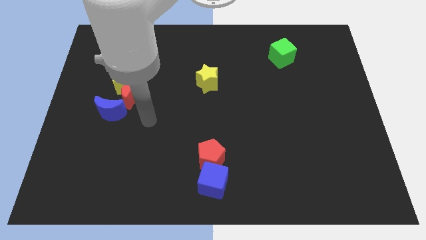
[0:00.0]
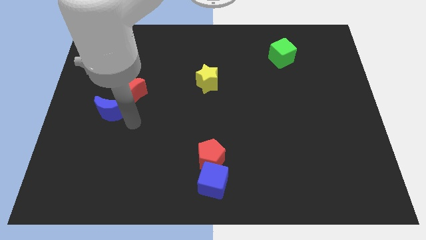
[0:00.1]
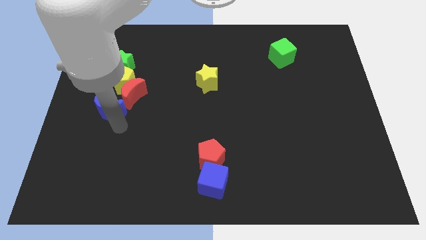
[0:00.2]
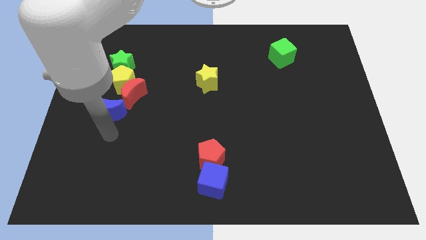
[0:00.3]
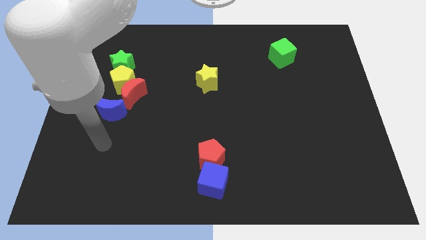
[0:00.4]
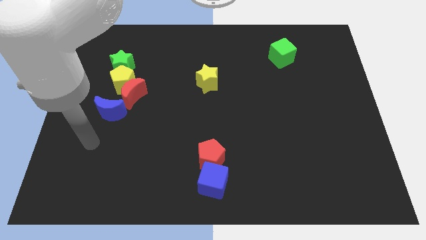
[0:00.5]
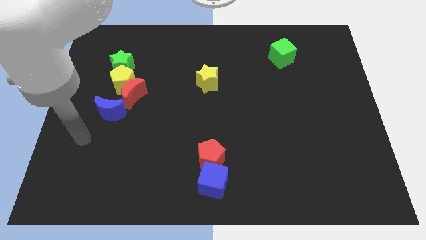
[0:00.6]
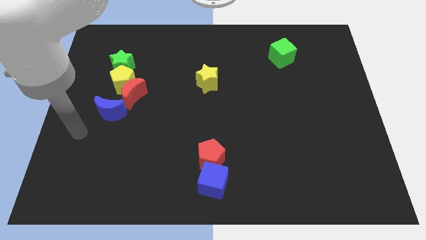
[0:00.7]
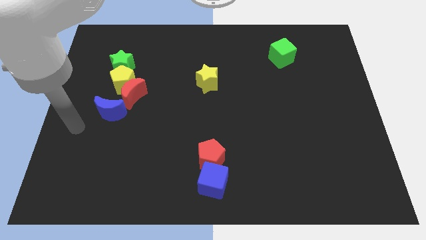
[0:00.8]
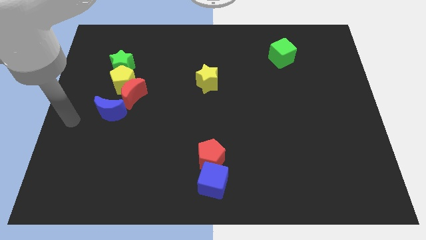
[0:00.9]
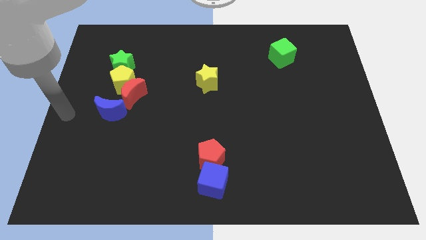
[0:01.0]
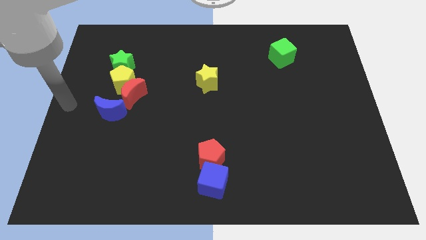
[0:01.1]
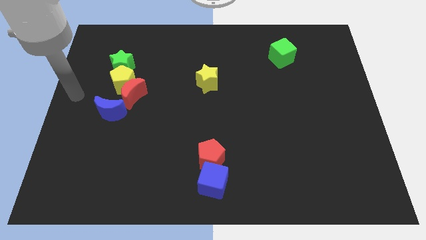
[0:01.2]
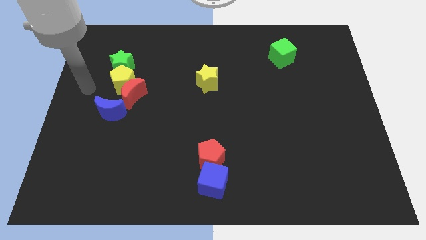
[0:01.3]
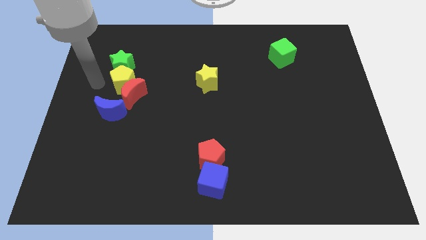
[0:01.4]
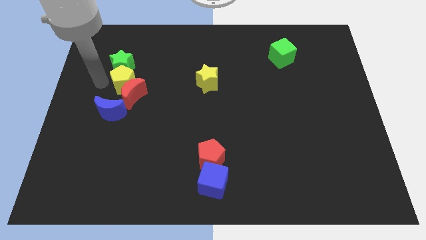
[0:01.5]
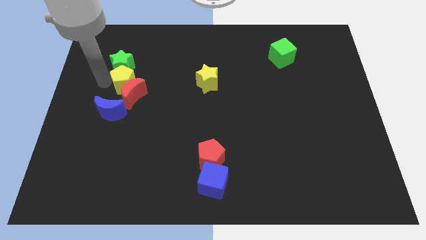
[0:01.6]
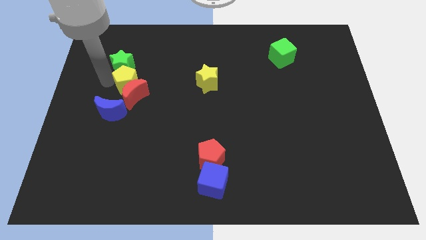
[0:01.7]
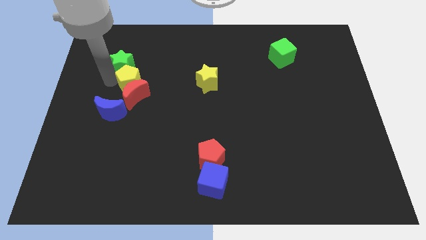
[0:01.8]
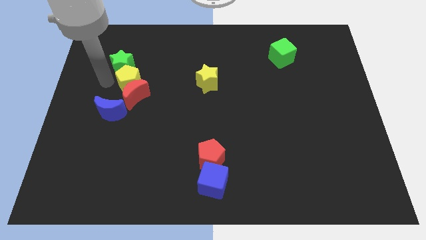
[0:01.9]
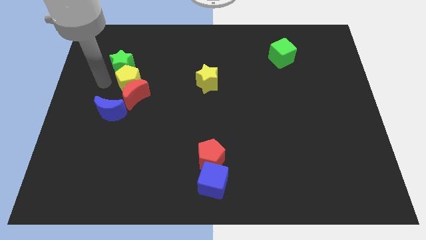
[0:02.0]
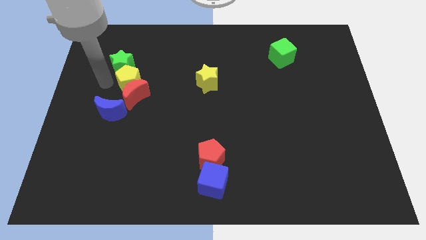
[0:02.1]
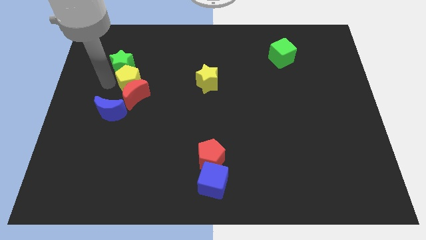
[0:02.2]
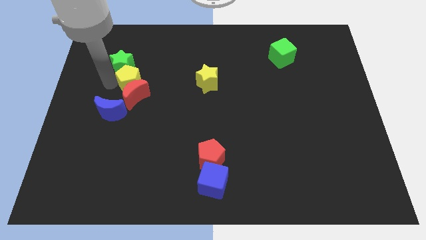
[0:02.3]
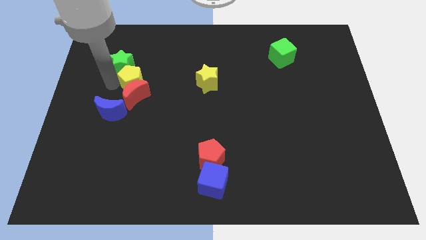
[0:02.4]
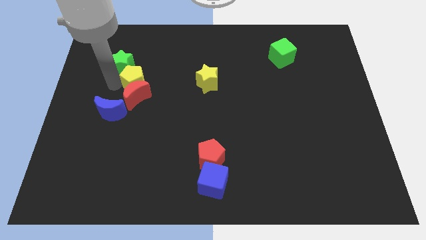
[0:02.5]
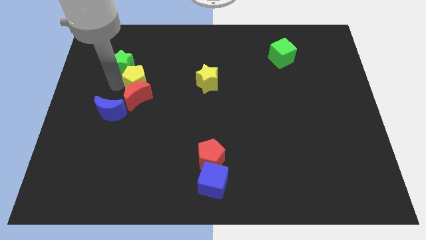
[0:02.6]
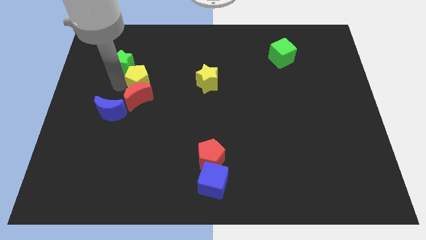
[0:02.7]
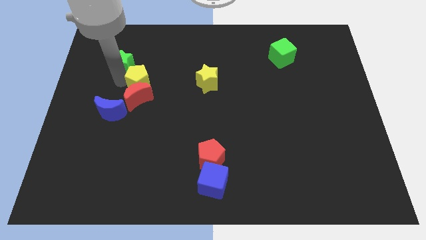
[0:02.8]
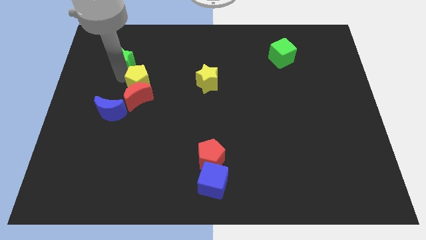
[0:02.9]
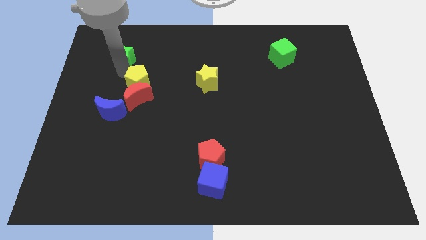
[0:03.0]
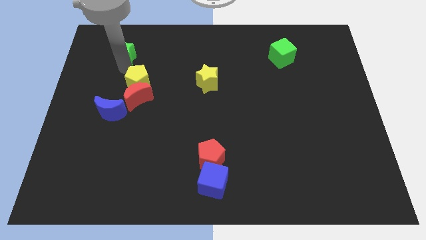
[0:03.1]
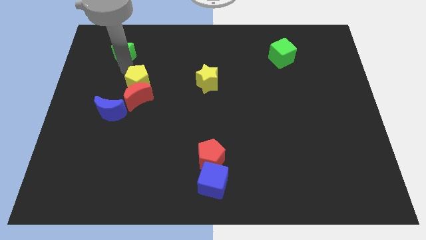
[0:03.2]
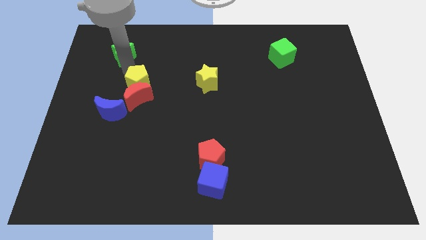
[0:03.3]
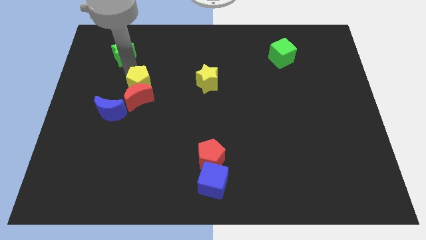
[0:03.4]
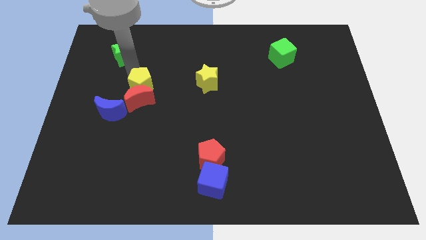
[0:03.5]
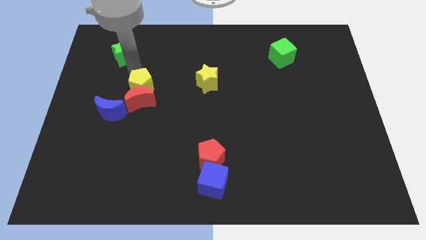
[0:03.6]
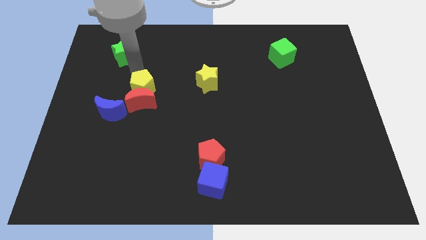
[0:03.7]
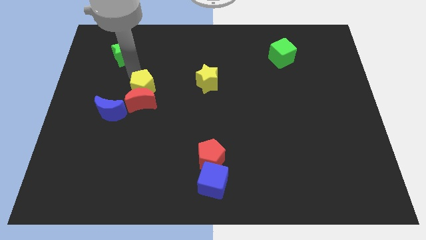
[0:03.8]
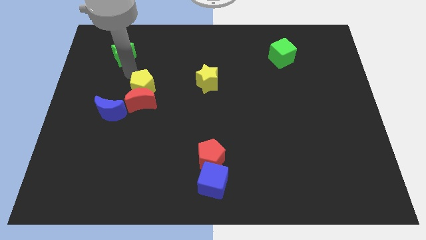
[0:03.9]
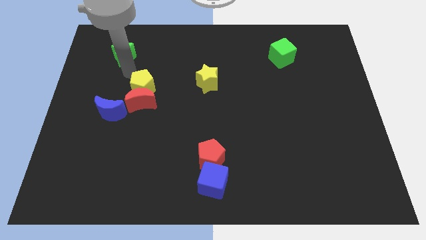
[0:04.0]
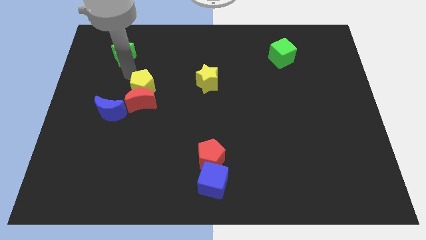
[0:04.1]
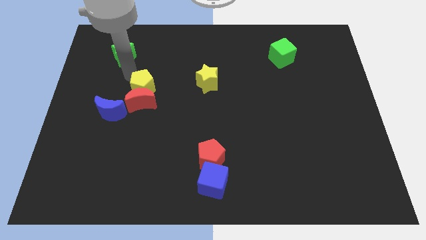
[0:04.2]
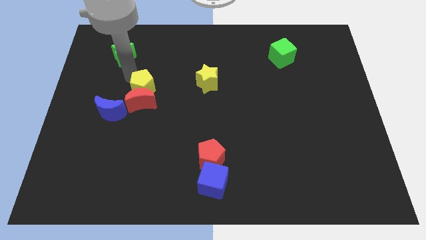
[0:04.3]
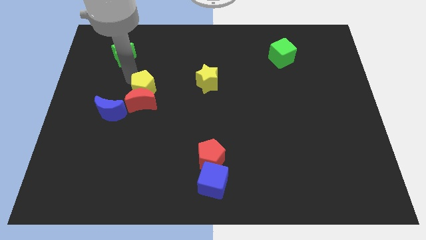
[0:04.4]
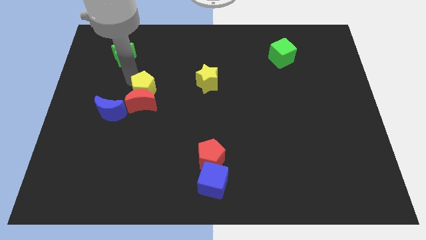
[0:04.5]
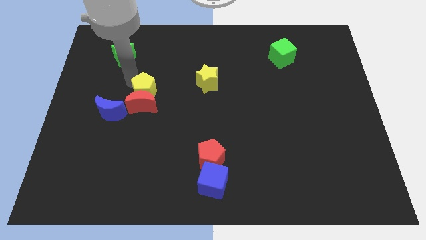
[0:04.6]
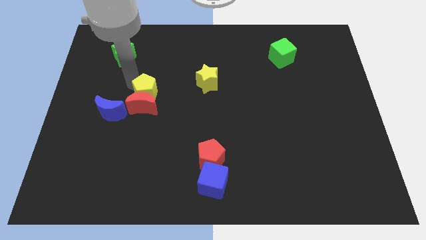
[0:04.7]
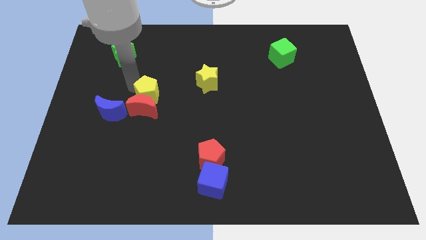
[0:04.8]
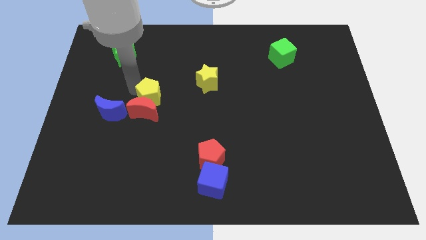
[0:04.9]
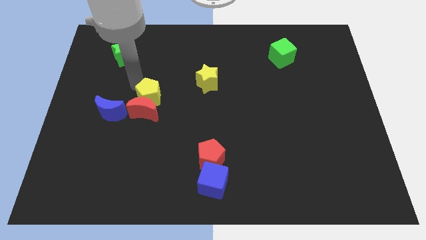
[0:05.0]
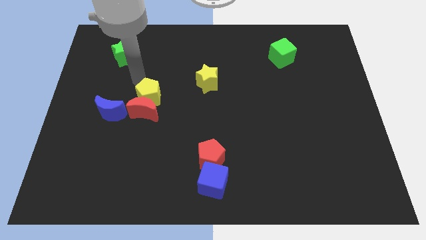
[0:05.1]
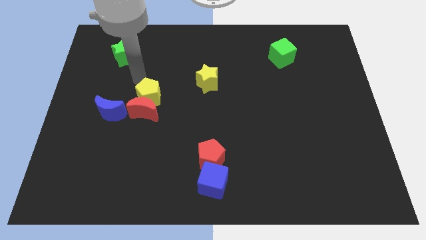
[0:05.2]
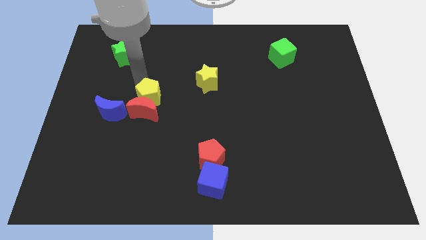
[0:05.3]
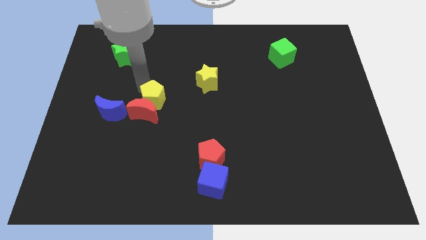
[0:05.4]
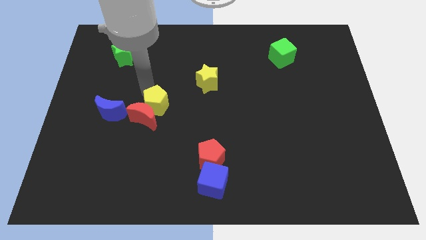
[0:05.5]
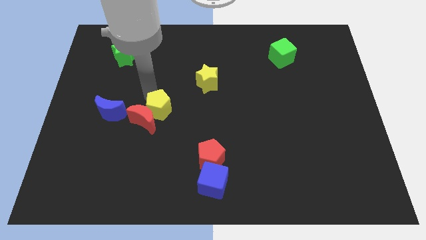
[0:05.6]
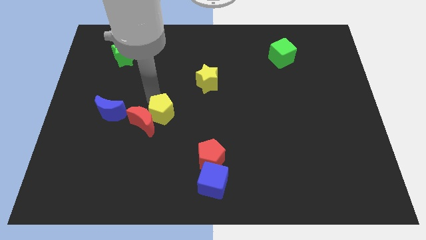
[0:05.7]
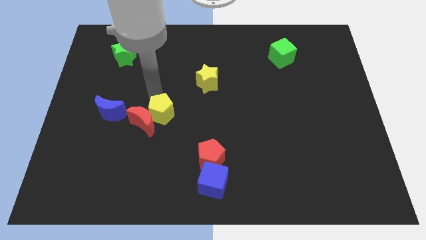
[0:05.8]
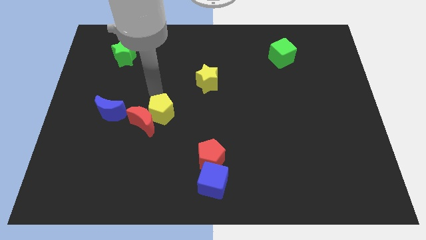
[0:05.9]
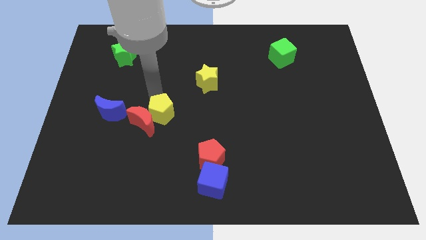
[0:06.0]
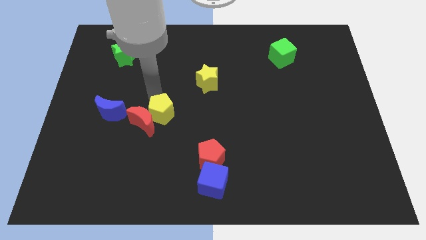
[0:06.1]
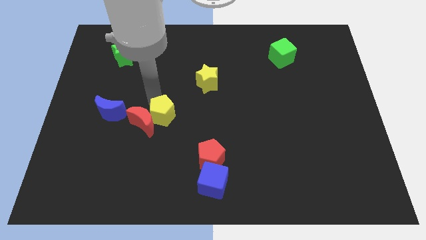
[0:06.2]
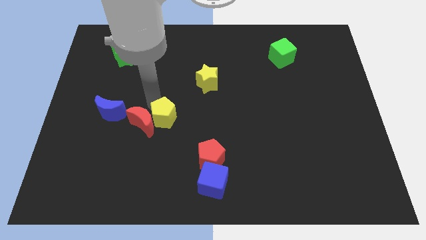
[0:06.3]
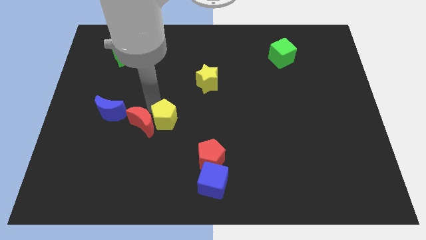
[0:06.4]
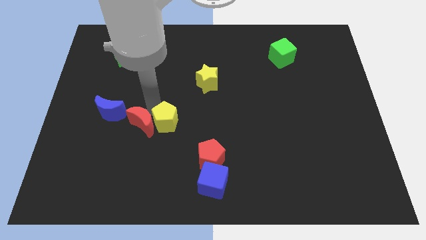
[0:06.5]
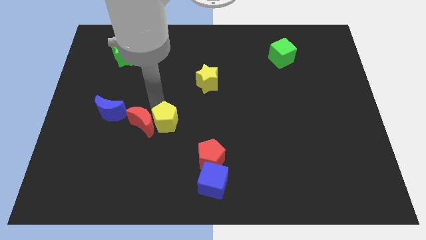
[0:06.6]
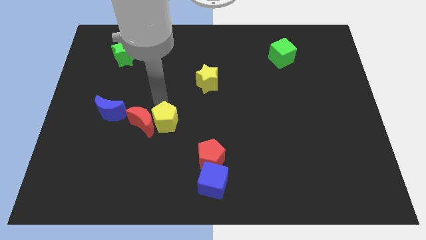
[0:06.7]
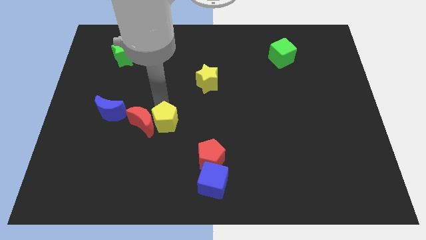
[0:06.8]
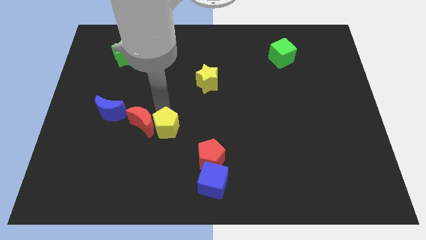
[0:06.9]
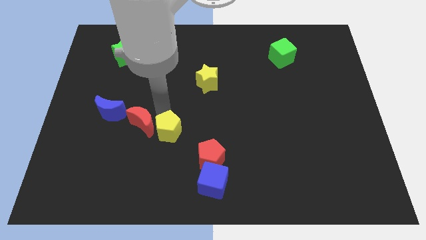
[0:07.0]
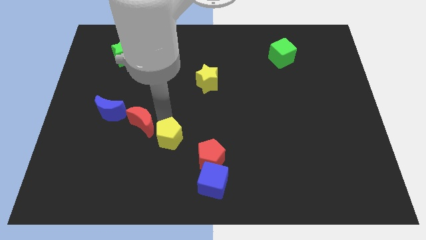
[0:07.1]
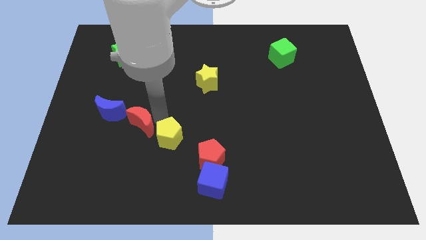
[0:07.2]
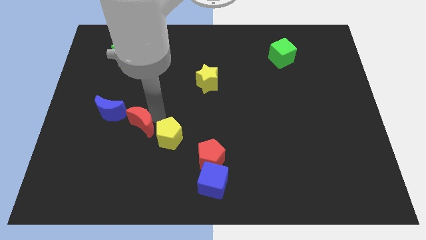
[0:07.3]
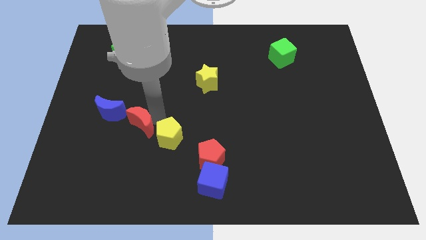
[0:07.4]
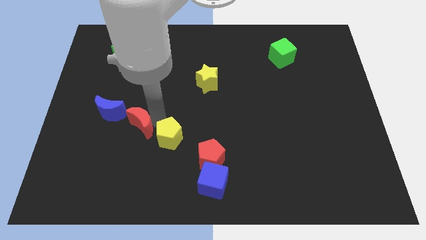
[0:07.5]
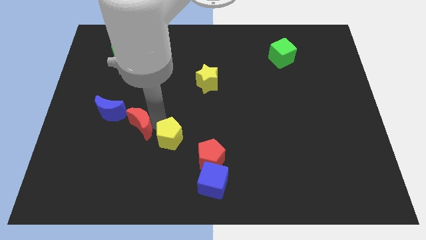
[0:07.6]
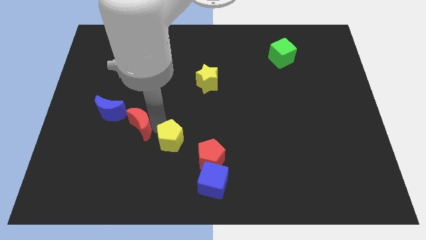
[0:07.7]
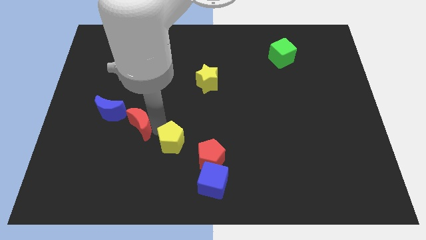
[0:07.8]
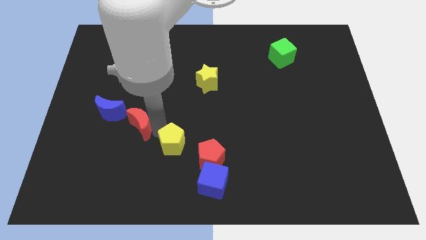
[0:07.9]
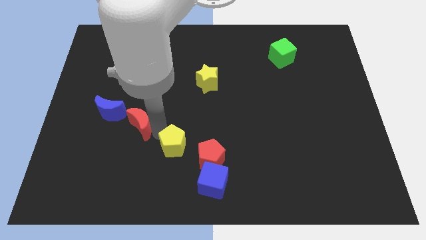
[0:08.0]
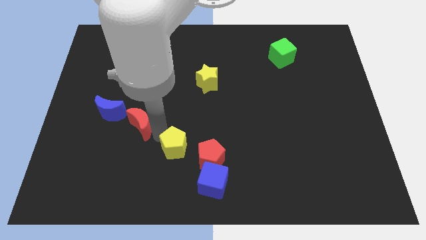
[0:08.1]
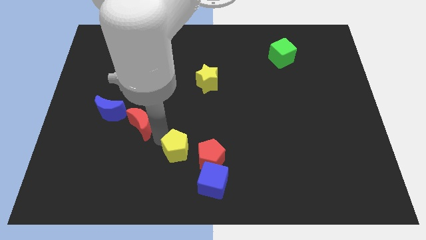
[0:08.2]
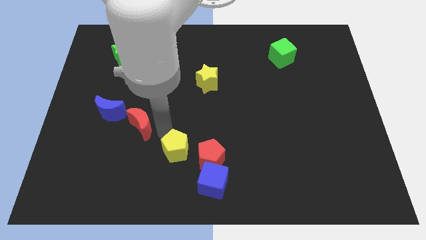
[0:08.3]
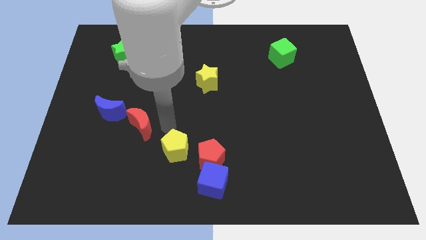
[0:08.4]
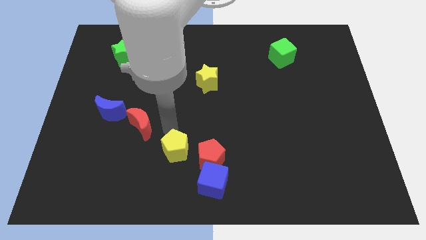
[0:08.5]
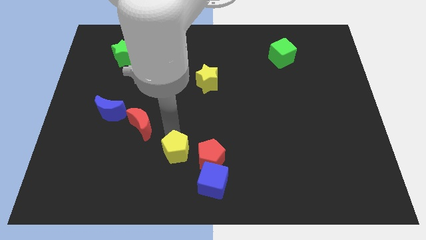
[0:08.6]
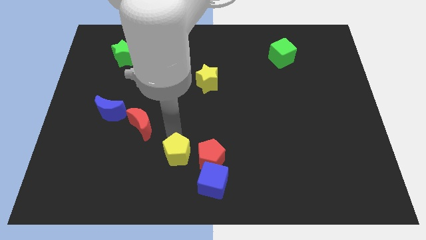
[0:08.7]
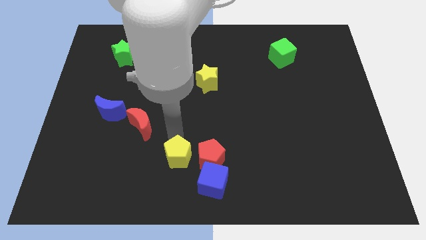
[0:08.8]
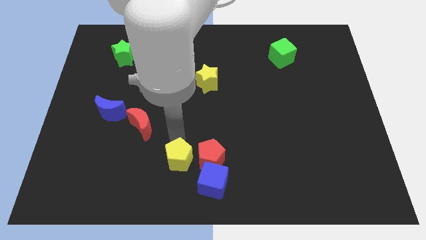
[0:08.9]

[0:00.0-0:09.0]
slide the yellow pentagon to the bottom left side of the red pentagon
